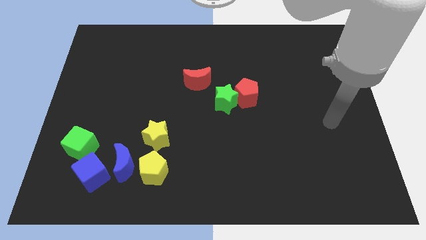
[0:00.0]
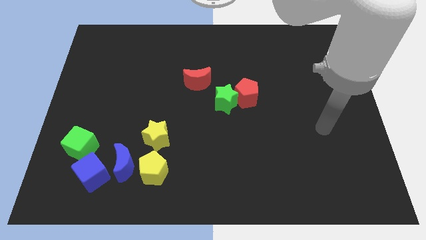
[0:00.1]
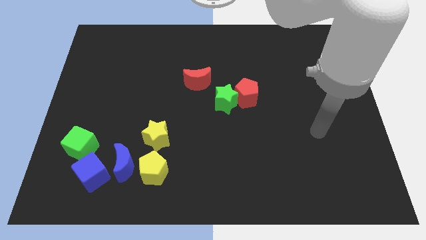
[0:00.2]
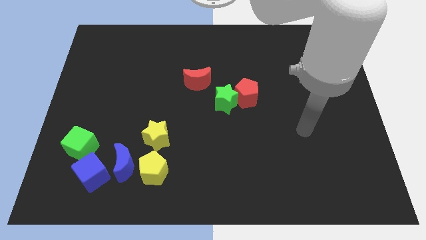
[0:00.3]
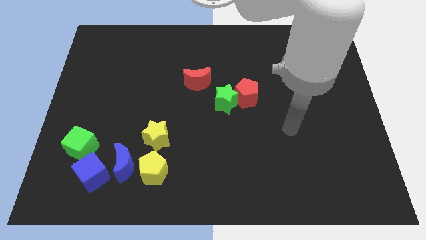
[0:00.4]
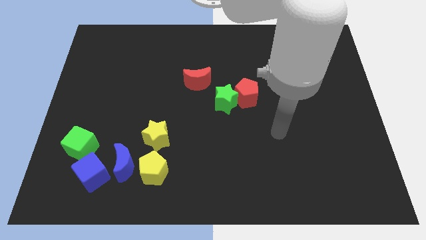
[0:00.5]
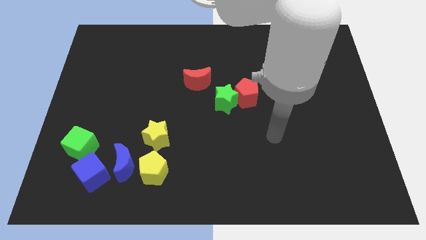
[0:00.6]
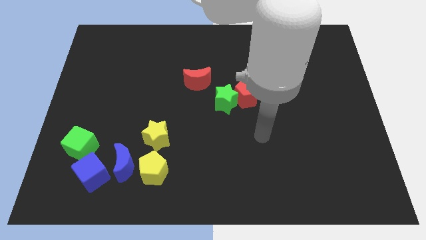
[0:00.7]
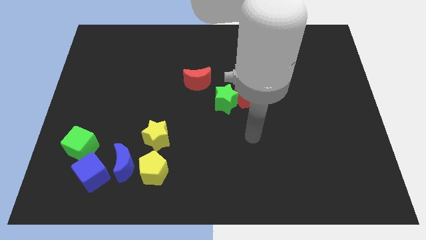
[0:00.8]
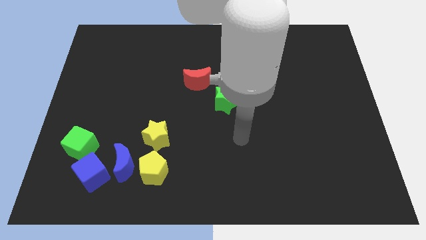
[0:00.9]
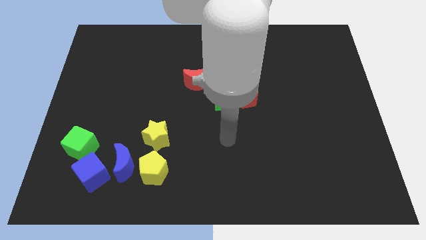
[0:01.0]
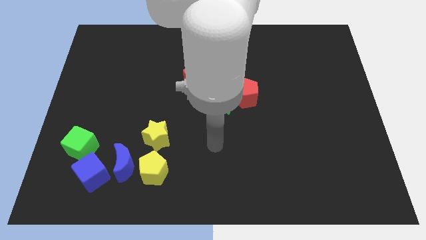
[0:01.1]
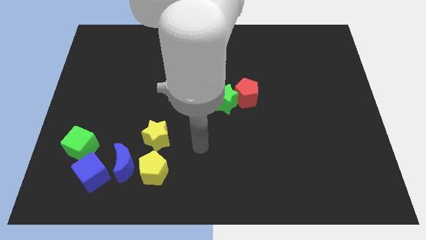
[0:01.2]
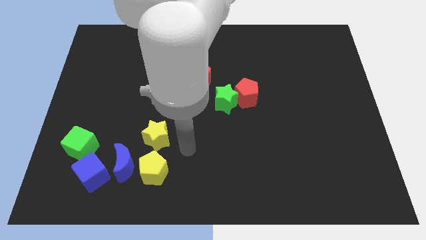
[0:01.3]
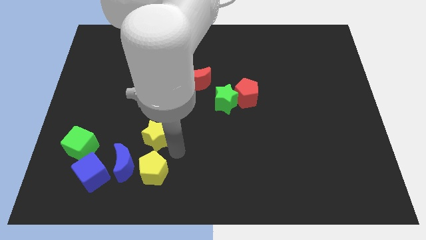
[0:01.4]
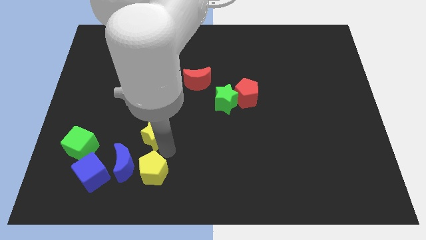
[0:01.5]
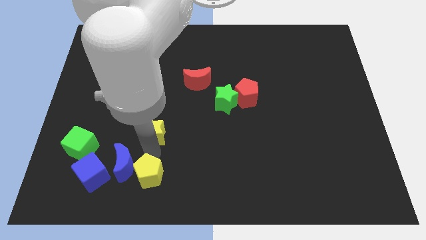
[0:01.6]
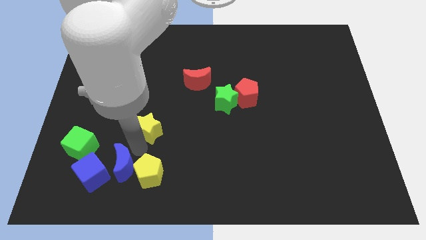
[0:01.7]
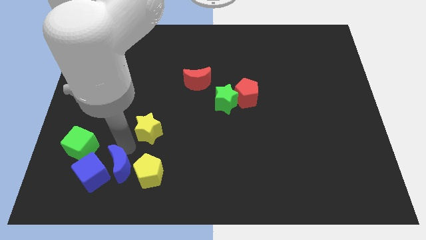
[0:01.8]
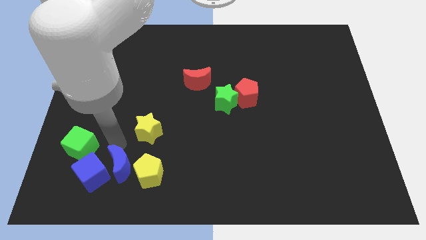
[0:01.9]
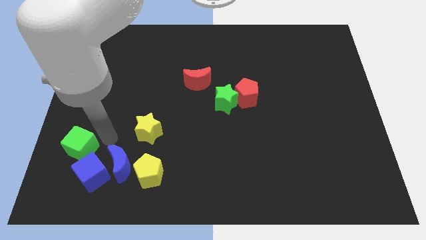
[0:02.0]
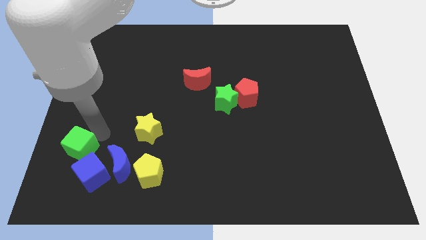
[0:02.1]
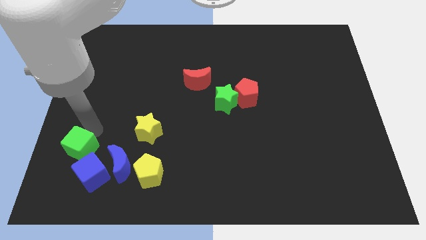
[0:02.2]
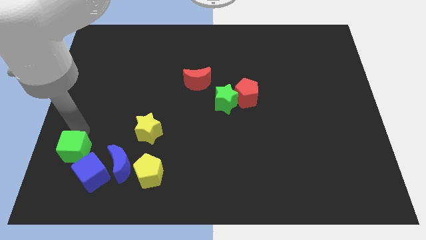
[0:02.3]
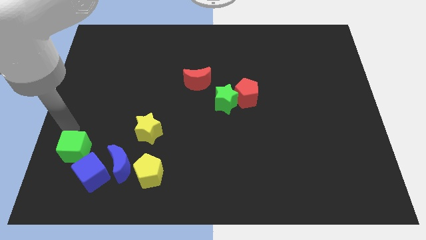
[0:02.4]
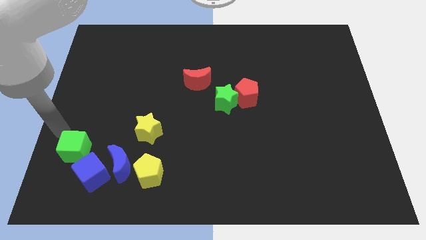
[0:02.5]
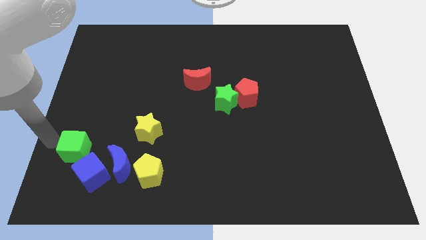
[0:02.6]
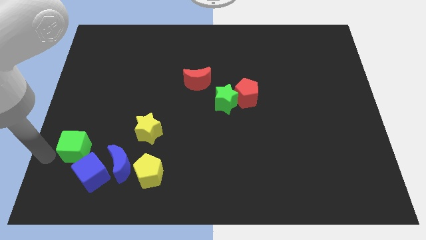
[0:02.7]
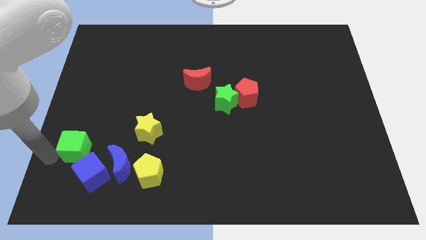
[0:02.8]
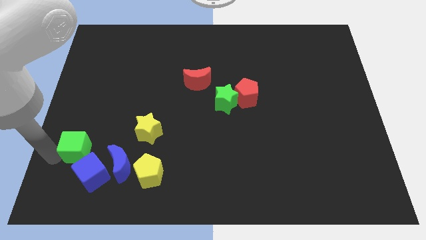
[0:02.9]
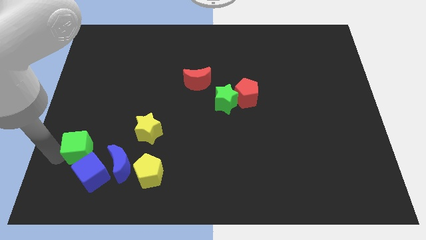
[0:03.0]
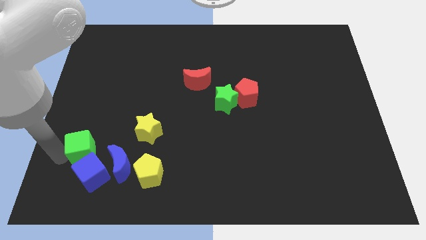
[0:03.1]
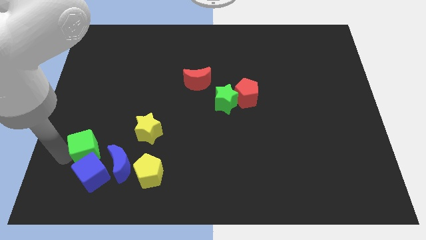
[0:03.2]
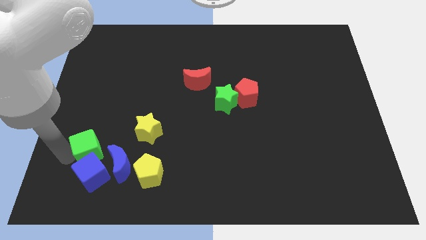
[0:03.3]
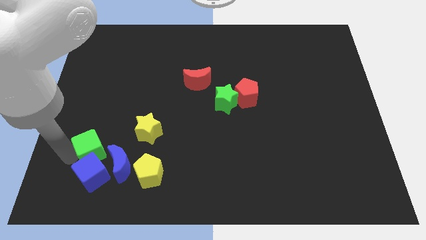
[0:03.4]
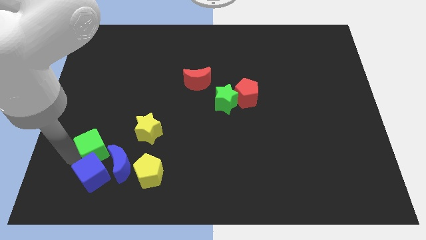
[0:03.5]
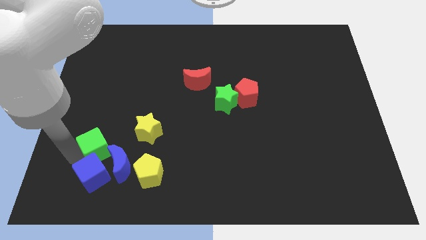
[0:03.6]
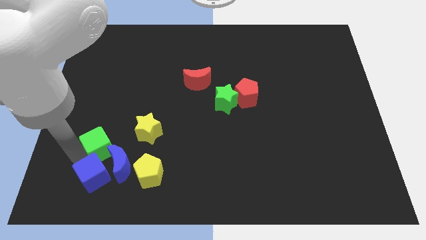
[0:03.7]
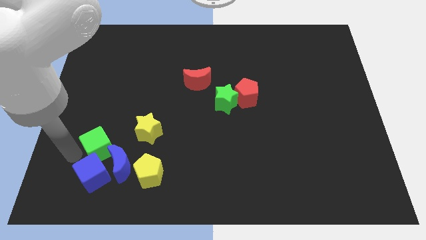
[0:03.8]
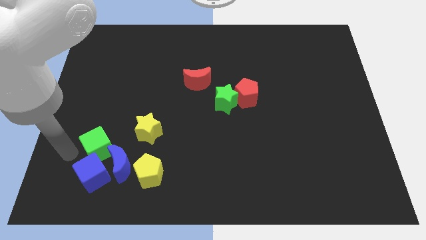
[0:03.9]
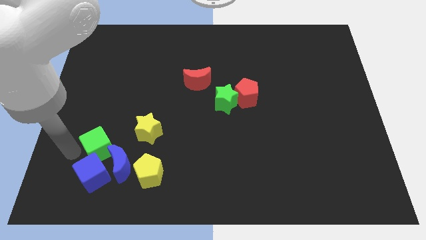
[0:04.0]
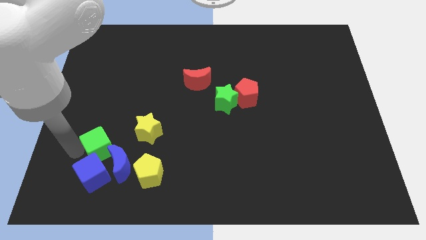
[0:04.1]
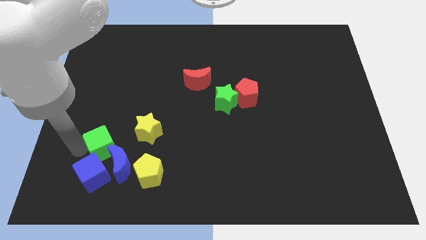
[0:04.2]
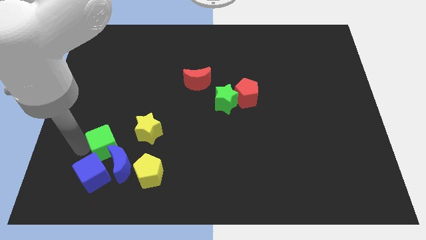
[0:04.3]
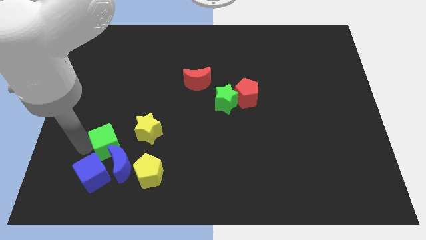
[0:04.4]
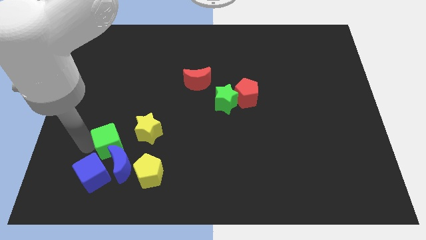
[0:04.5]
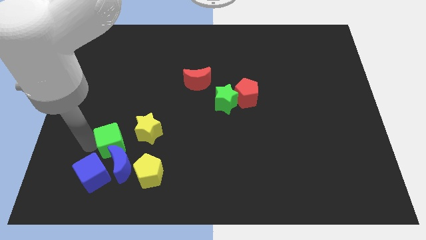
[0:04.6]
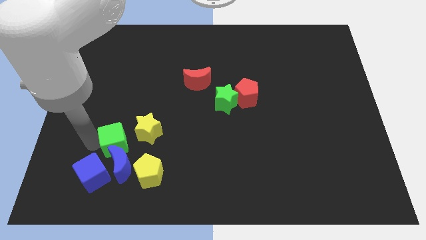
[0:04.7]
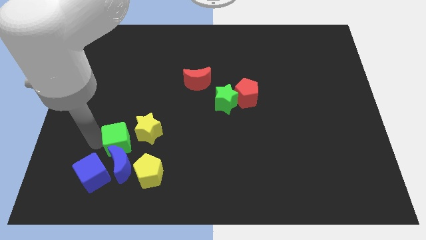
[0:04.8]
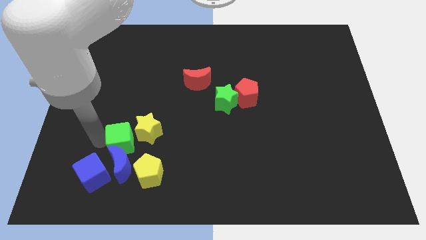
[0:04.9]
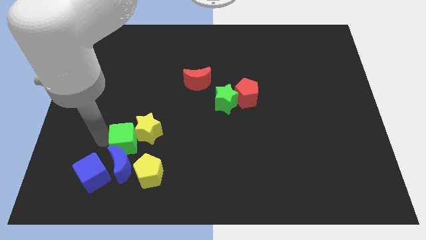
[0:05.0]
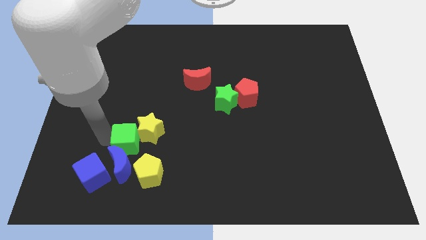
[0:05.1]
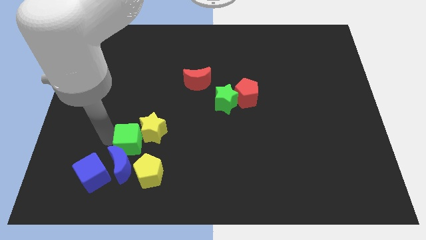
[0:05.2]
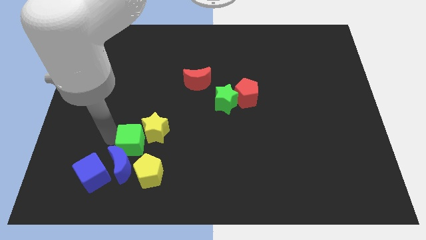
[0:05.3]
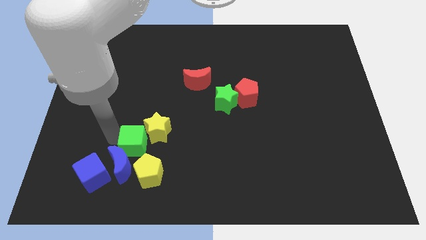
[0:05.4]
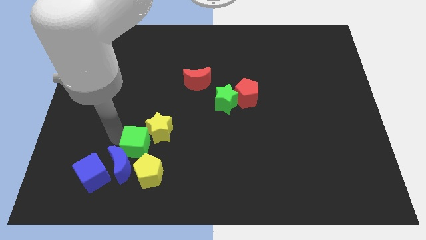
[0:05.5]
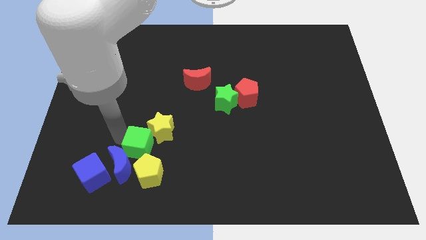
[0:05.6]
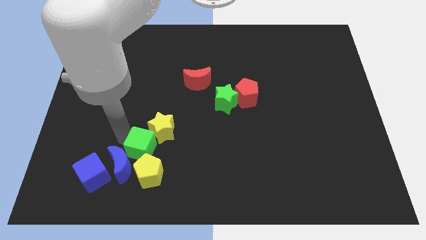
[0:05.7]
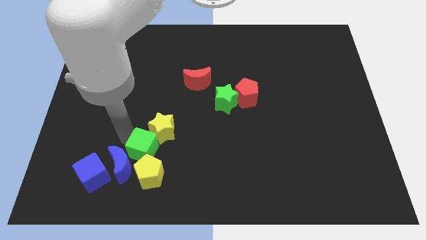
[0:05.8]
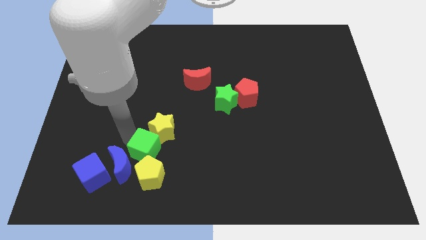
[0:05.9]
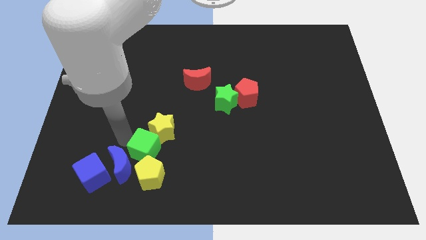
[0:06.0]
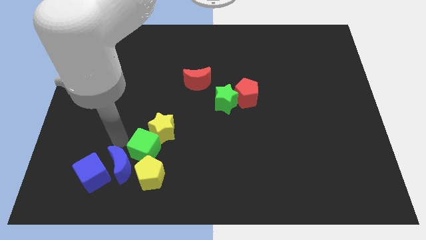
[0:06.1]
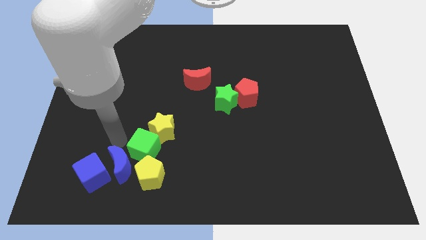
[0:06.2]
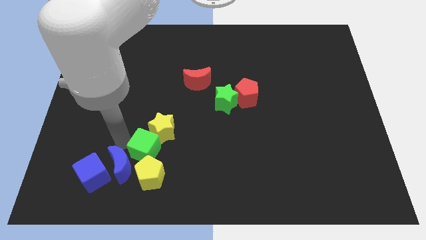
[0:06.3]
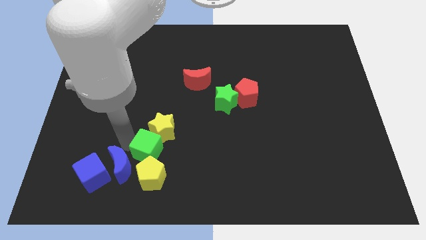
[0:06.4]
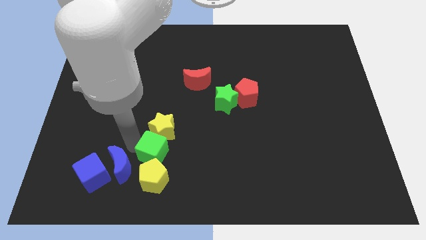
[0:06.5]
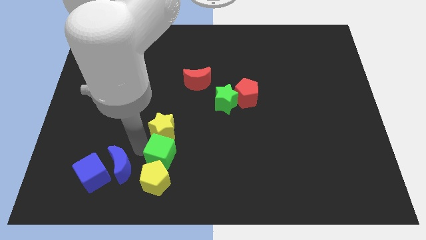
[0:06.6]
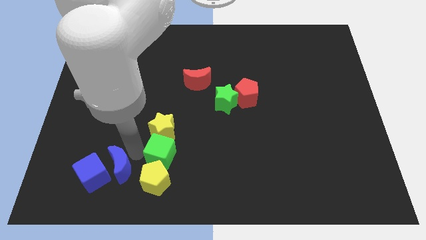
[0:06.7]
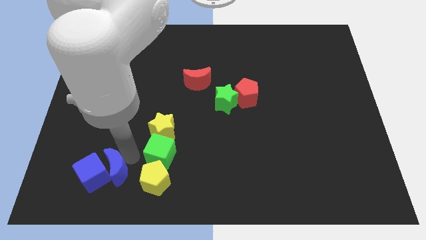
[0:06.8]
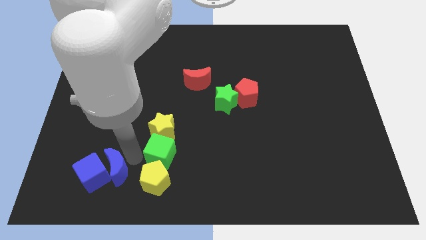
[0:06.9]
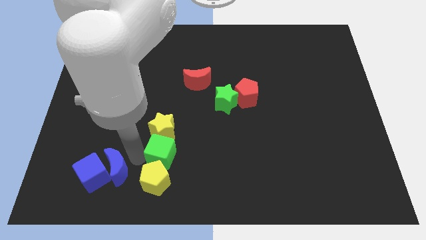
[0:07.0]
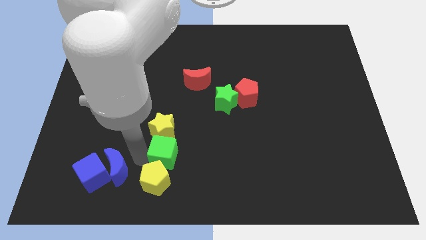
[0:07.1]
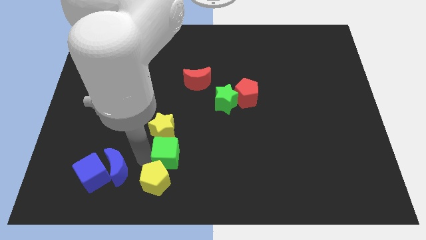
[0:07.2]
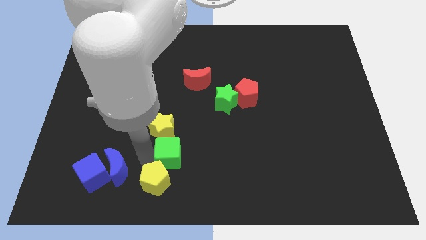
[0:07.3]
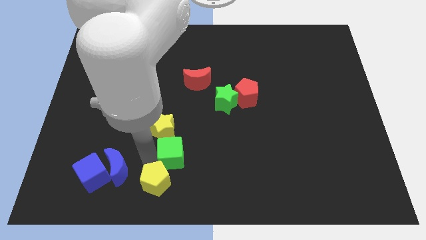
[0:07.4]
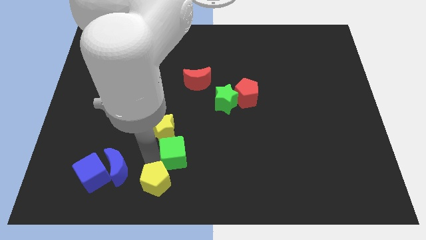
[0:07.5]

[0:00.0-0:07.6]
slide the green cube to the right

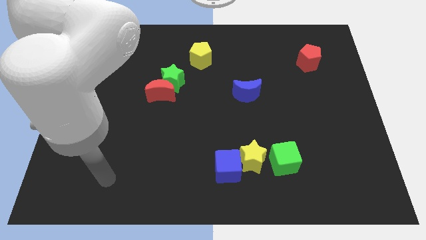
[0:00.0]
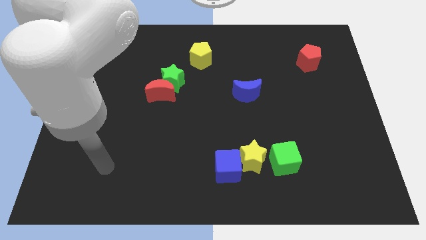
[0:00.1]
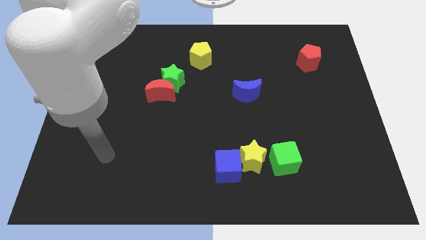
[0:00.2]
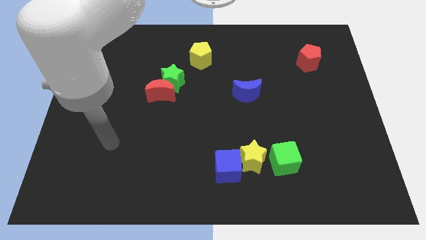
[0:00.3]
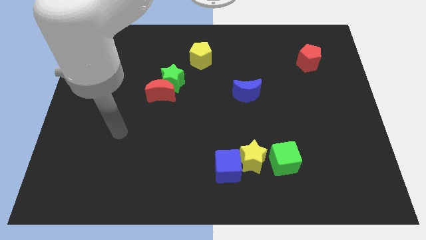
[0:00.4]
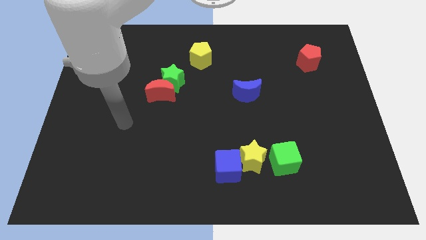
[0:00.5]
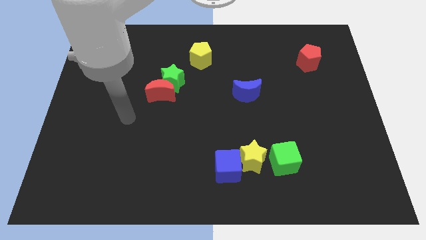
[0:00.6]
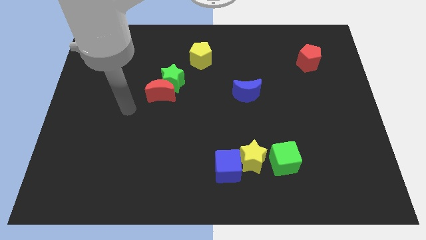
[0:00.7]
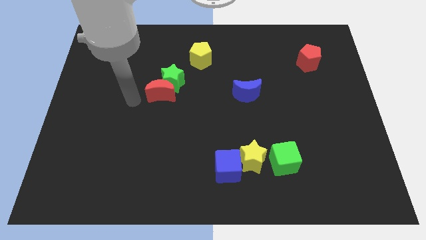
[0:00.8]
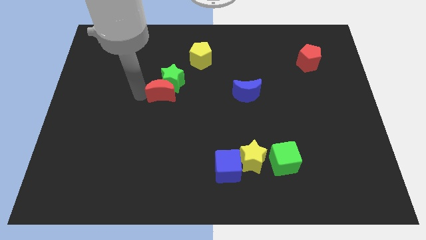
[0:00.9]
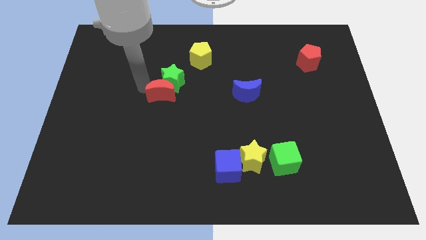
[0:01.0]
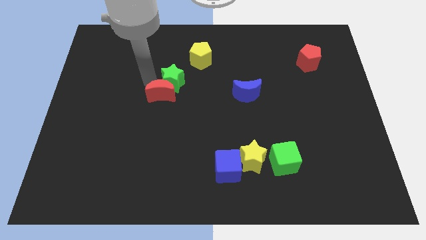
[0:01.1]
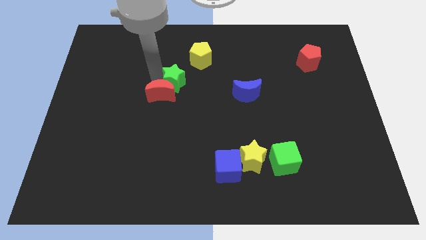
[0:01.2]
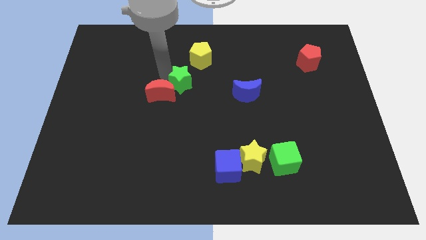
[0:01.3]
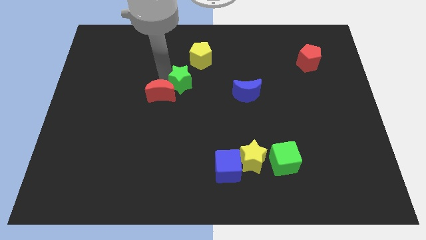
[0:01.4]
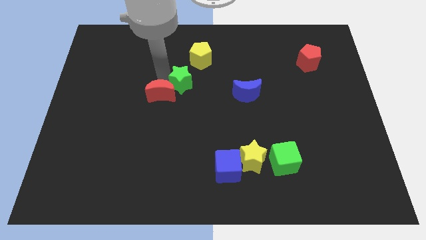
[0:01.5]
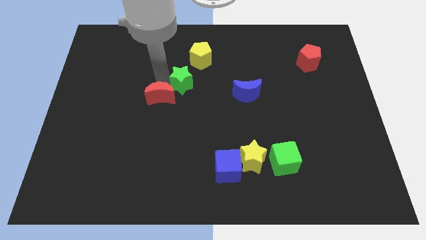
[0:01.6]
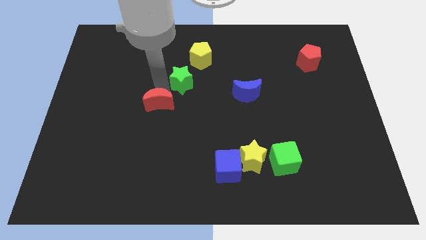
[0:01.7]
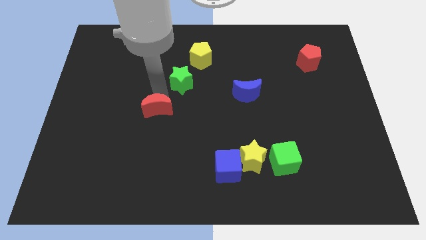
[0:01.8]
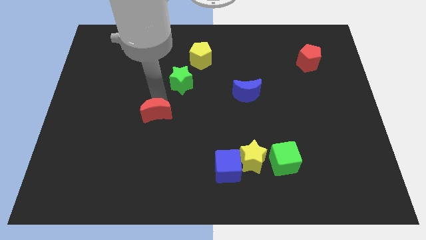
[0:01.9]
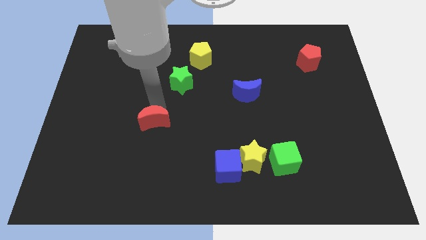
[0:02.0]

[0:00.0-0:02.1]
slightly push the red moon down
